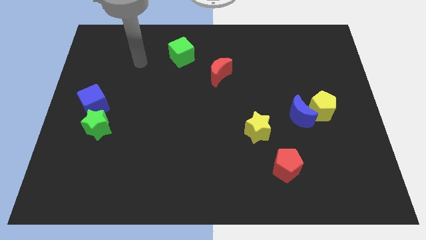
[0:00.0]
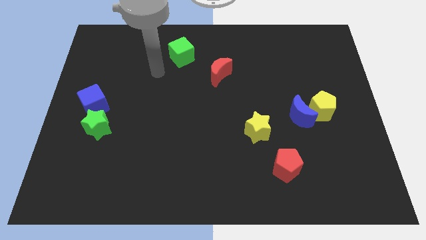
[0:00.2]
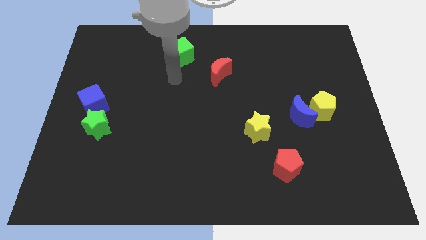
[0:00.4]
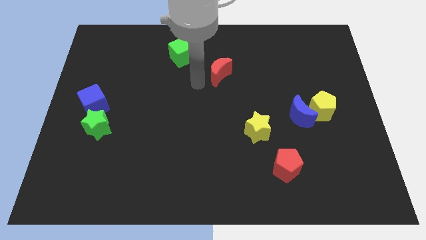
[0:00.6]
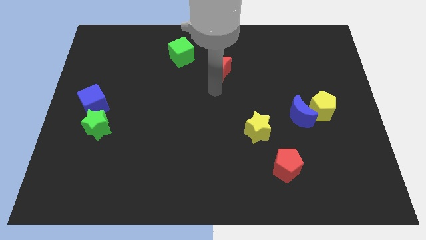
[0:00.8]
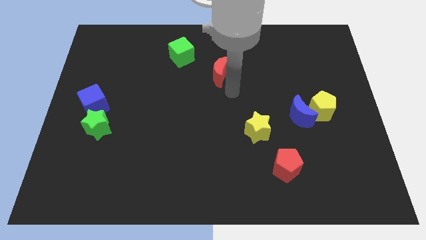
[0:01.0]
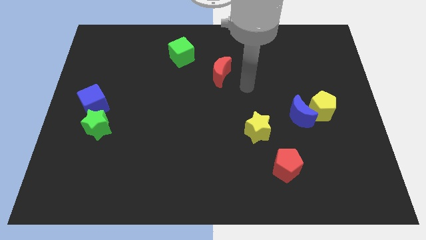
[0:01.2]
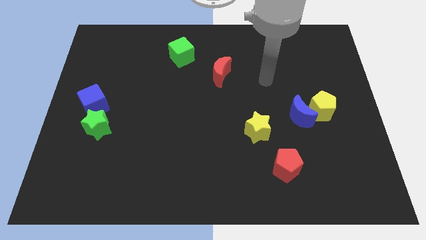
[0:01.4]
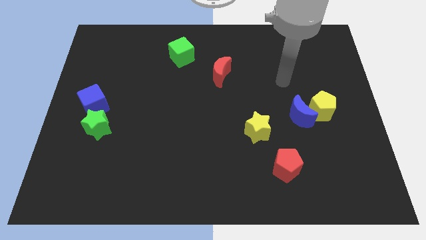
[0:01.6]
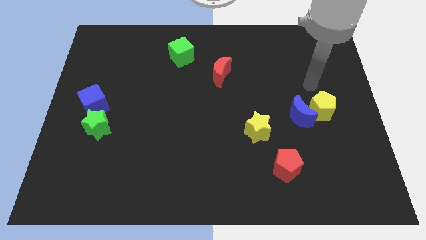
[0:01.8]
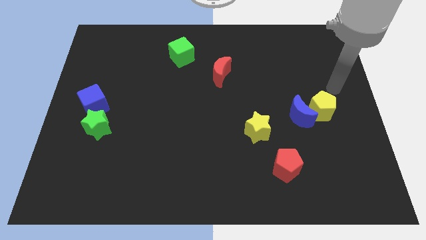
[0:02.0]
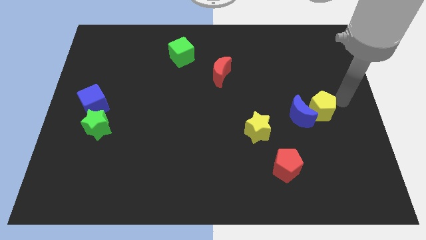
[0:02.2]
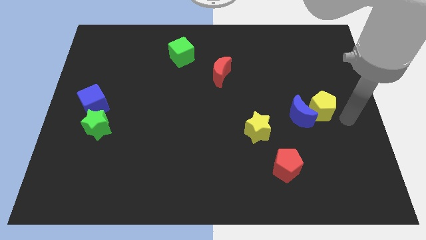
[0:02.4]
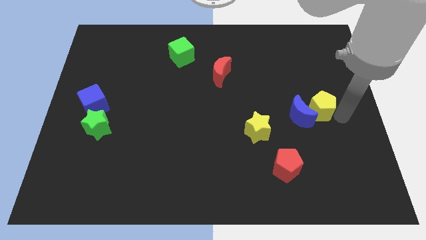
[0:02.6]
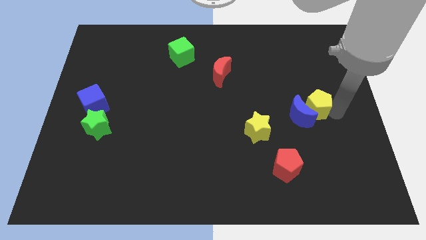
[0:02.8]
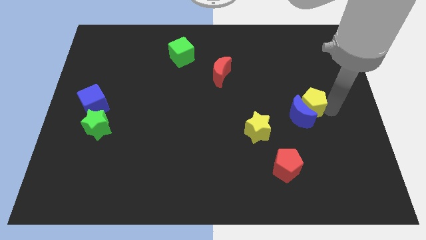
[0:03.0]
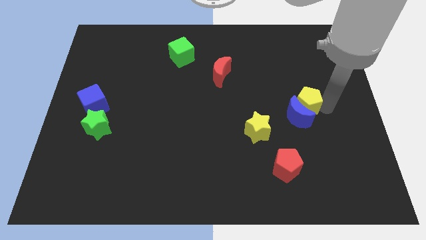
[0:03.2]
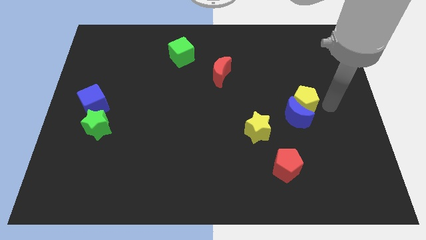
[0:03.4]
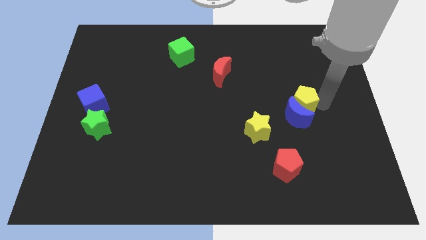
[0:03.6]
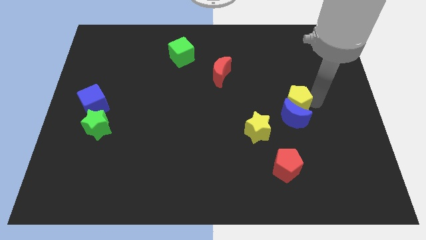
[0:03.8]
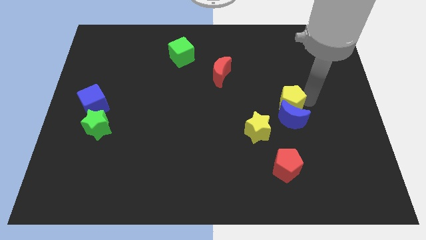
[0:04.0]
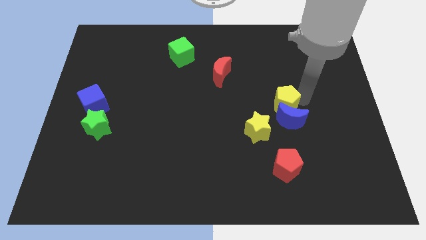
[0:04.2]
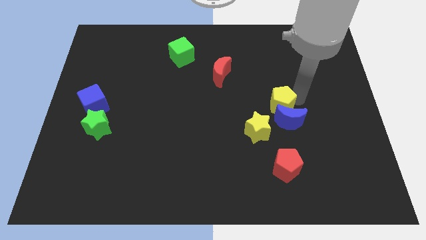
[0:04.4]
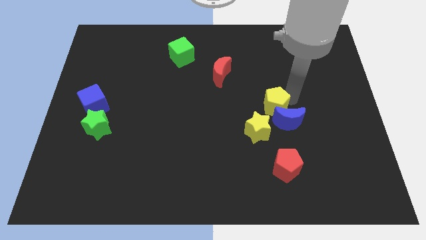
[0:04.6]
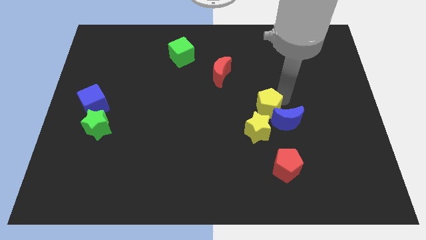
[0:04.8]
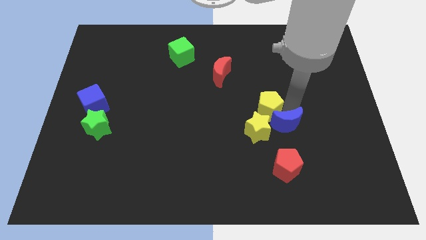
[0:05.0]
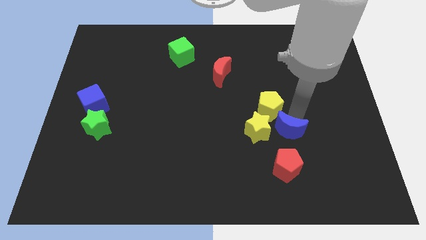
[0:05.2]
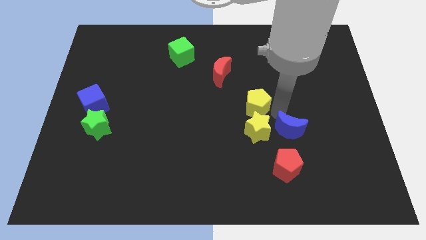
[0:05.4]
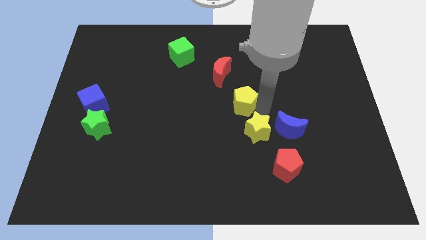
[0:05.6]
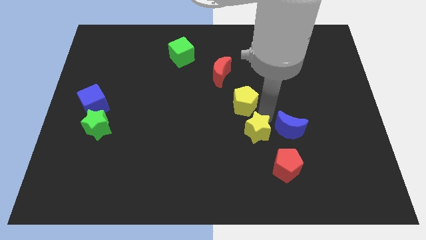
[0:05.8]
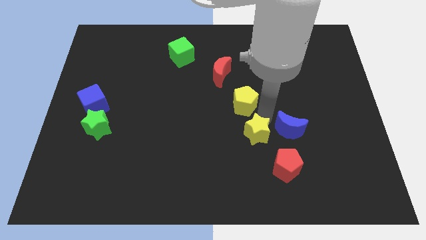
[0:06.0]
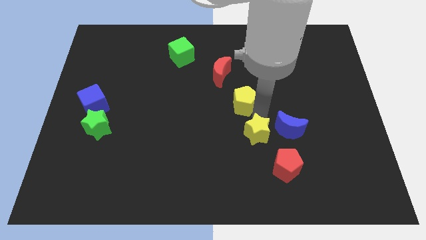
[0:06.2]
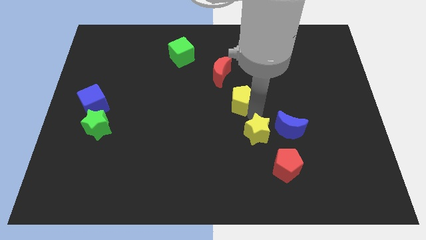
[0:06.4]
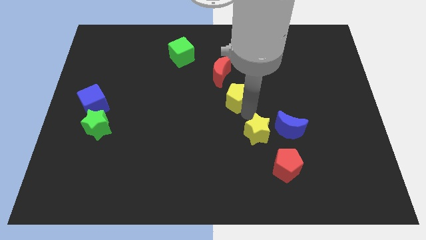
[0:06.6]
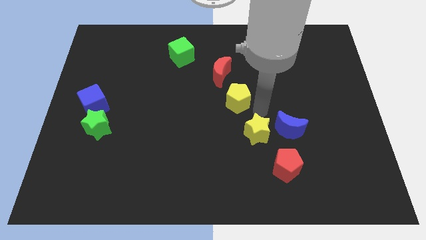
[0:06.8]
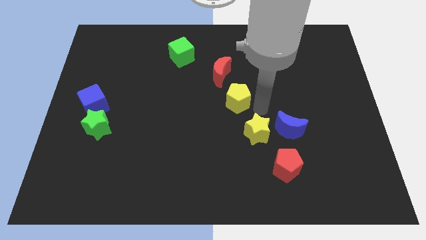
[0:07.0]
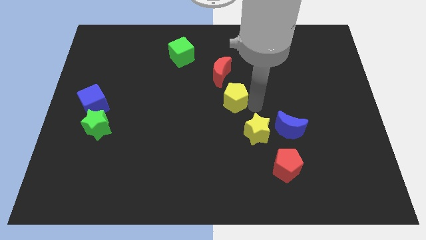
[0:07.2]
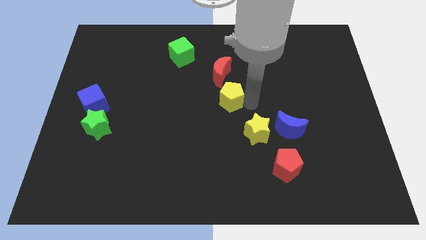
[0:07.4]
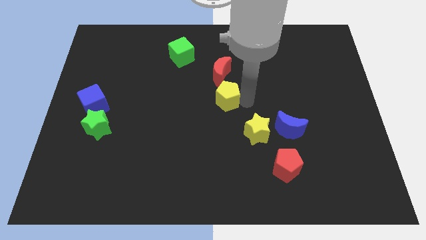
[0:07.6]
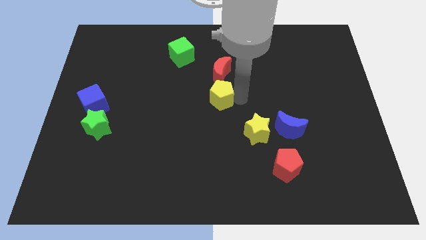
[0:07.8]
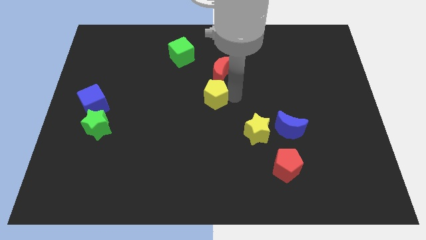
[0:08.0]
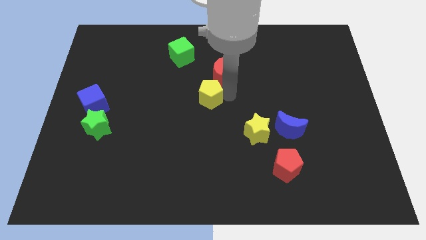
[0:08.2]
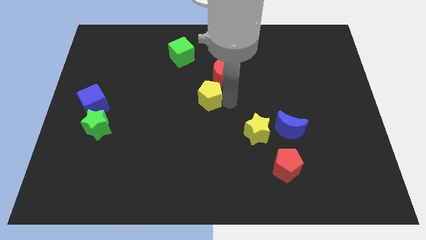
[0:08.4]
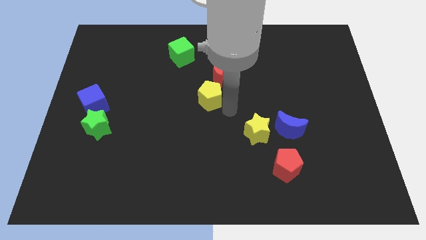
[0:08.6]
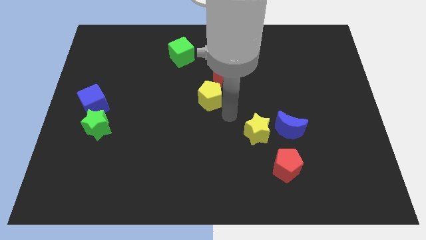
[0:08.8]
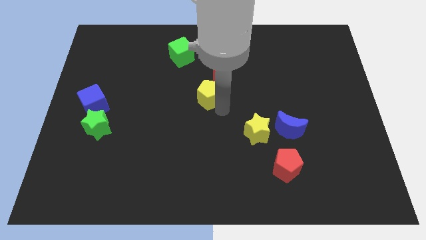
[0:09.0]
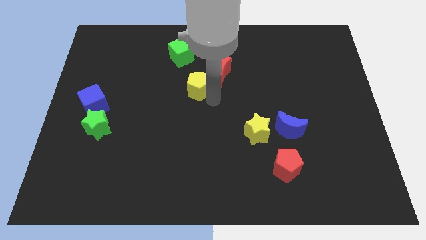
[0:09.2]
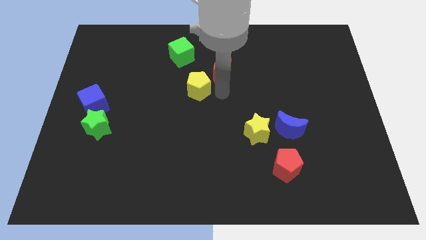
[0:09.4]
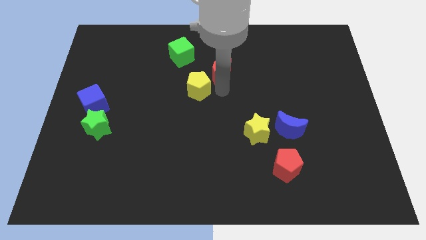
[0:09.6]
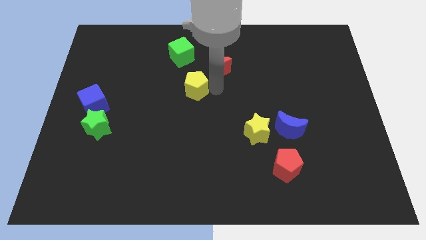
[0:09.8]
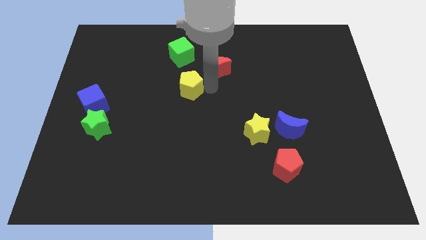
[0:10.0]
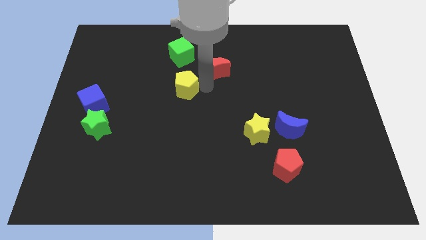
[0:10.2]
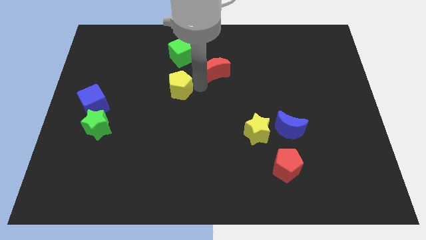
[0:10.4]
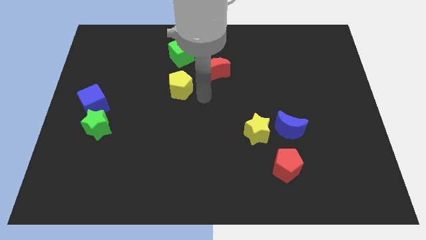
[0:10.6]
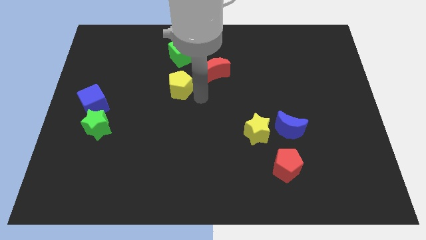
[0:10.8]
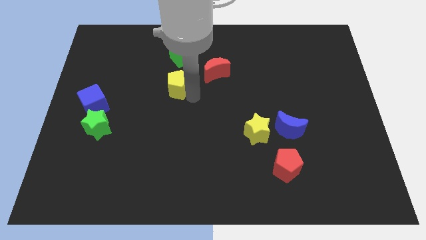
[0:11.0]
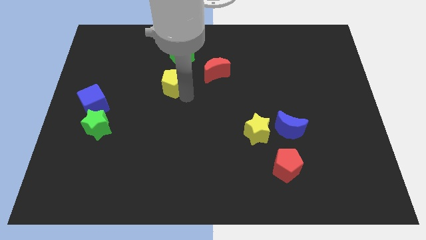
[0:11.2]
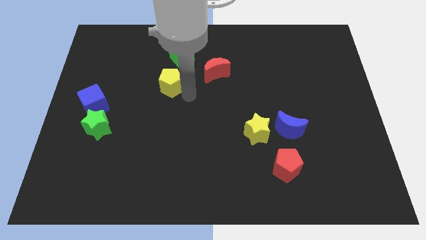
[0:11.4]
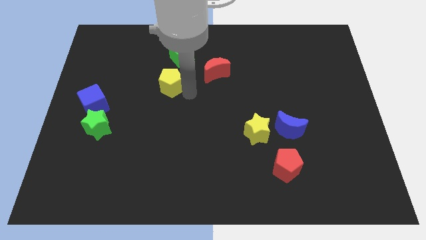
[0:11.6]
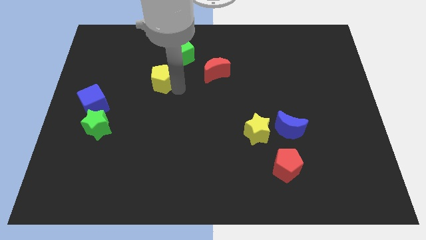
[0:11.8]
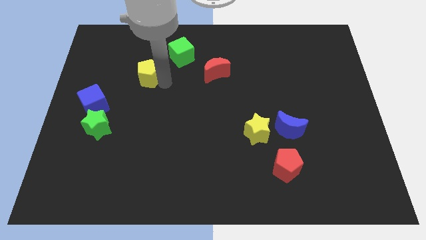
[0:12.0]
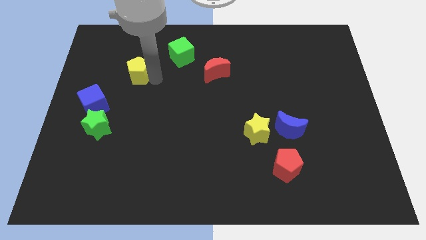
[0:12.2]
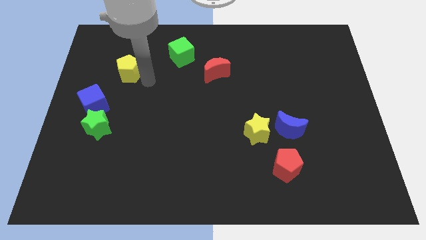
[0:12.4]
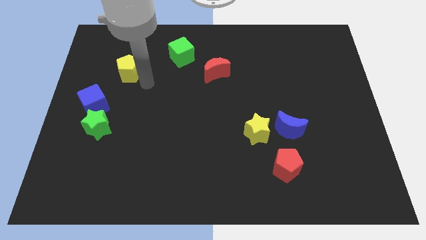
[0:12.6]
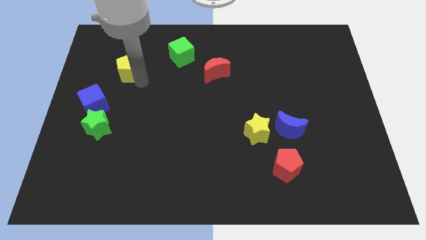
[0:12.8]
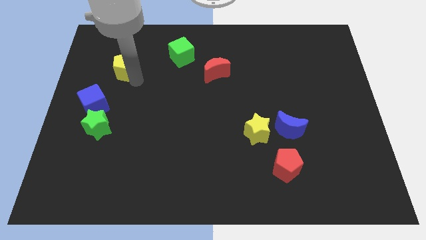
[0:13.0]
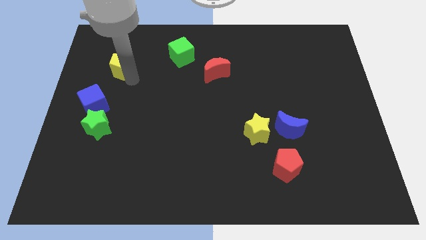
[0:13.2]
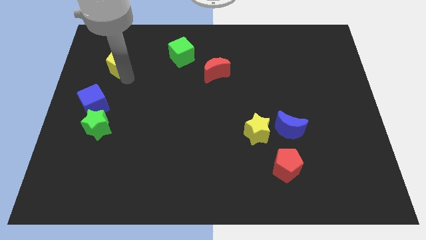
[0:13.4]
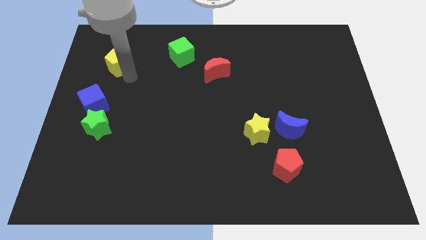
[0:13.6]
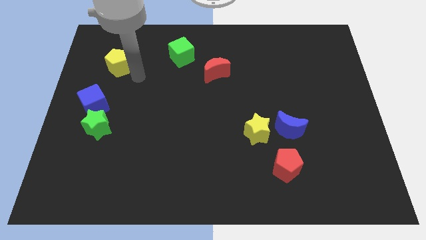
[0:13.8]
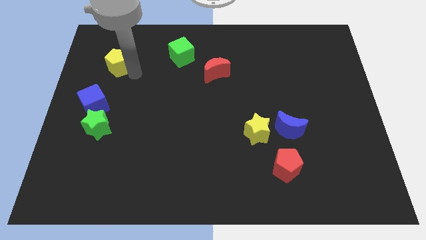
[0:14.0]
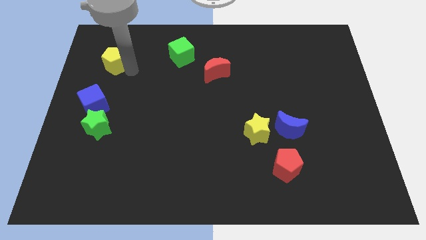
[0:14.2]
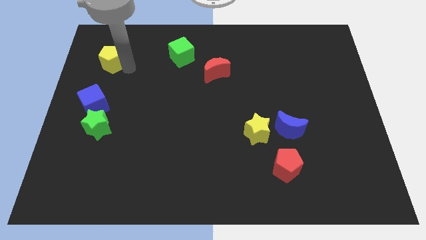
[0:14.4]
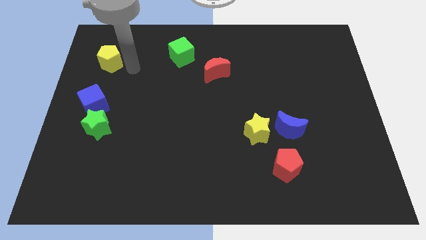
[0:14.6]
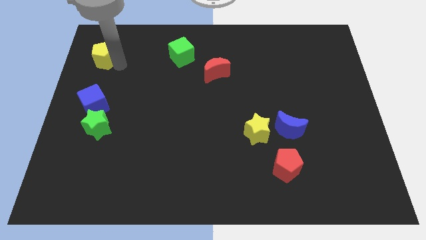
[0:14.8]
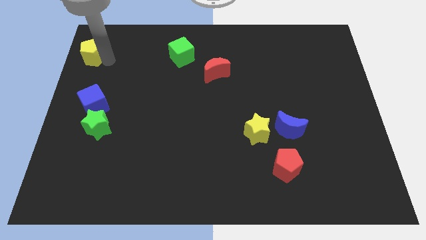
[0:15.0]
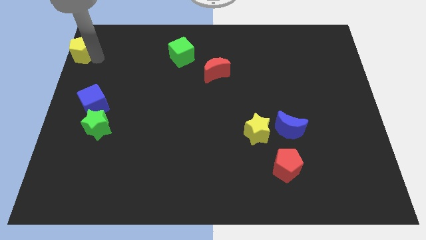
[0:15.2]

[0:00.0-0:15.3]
push the yellow pentagon to the top left
